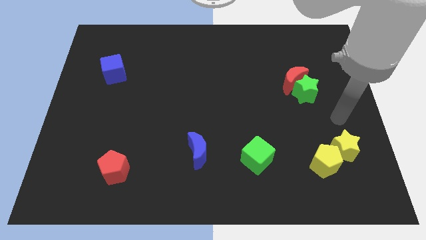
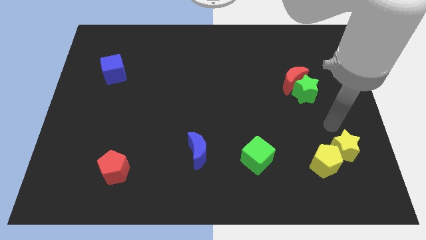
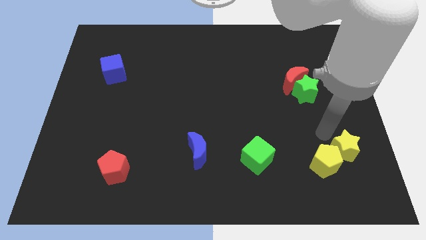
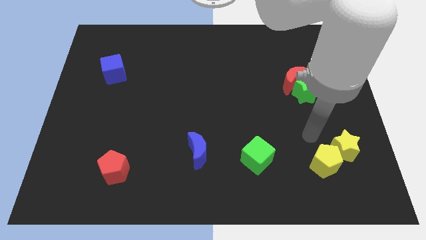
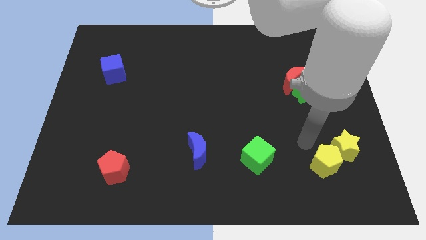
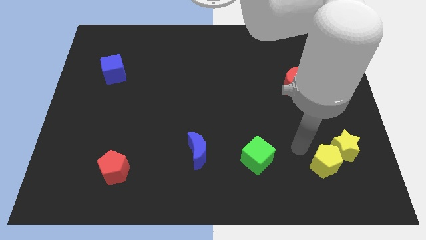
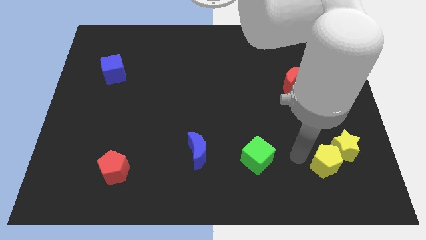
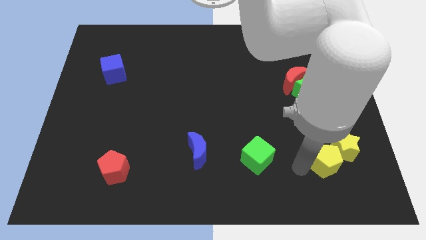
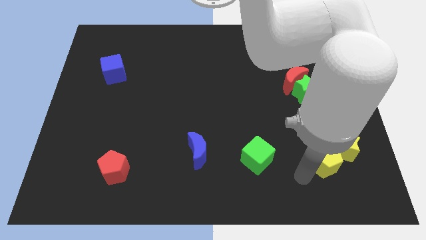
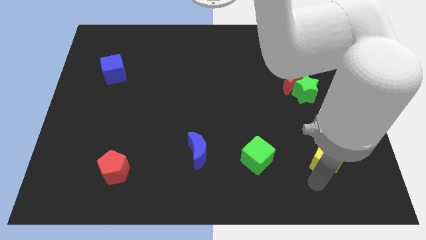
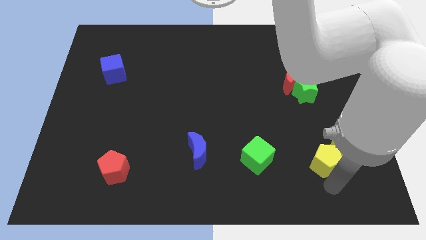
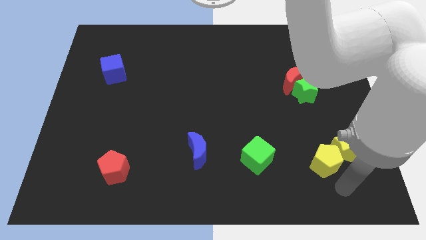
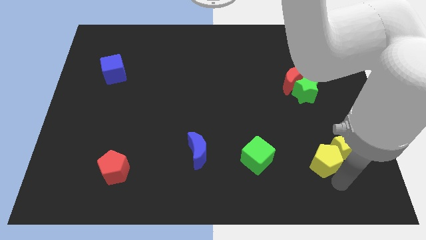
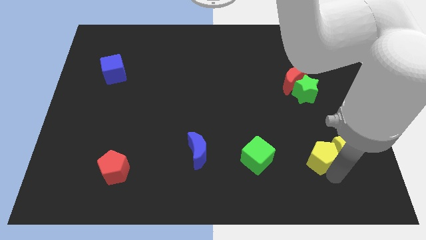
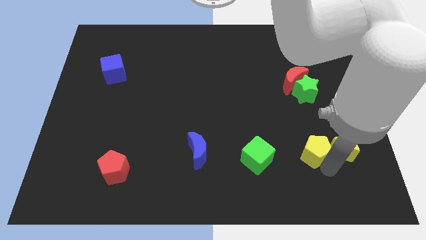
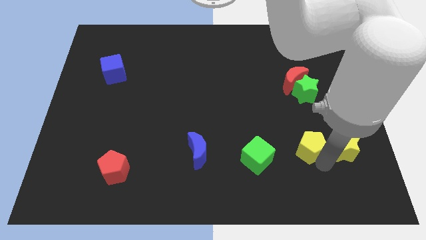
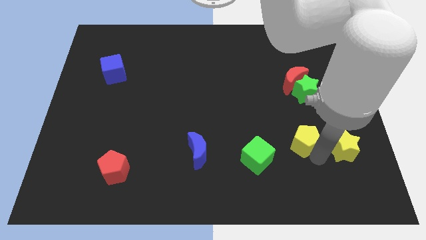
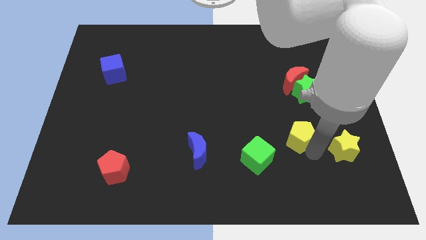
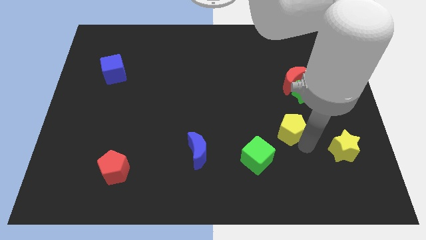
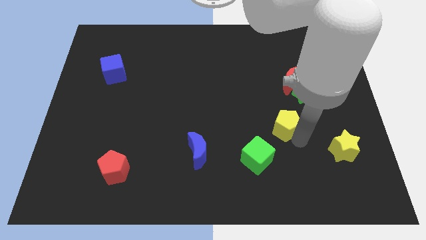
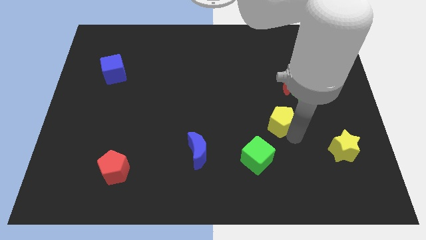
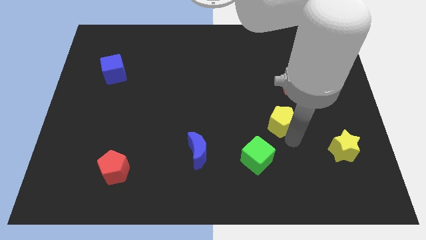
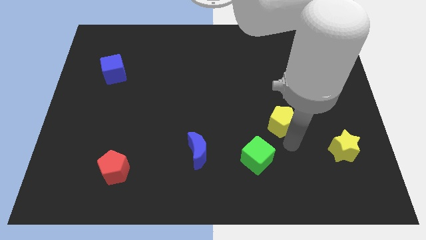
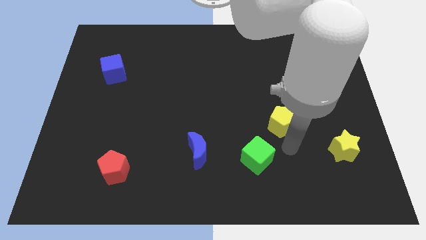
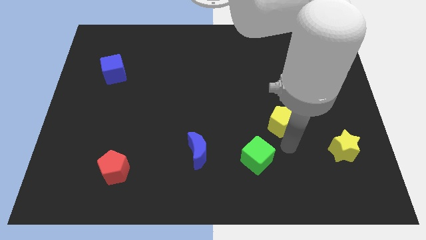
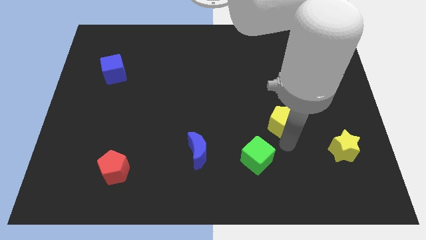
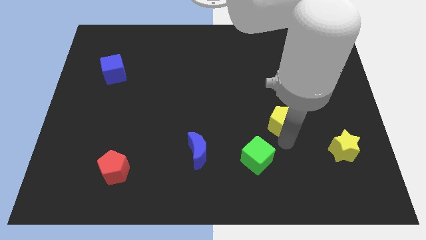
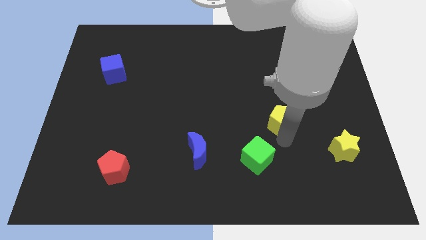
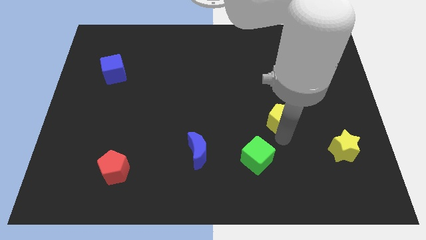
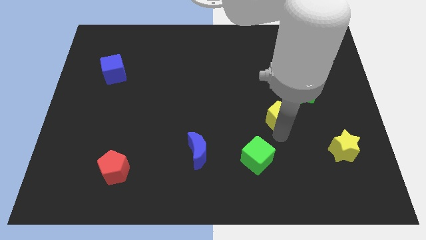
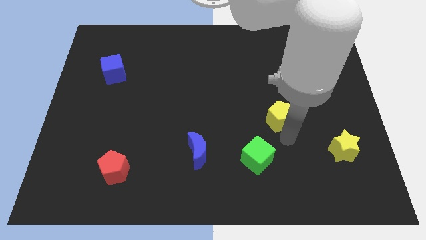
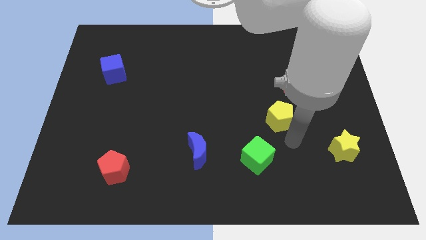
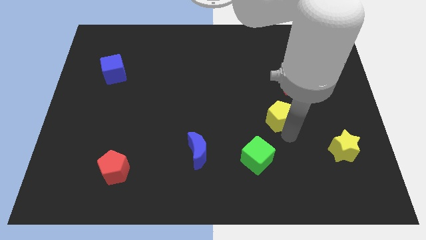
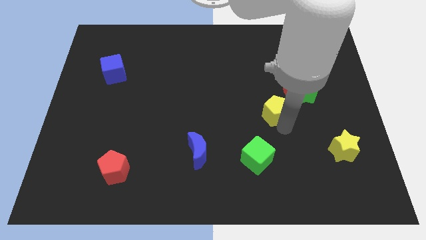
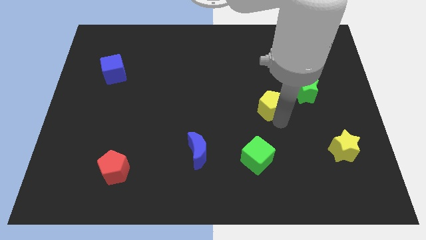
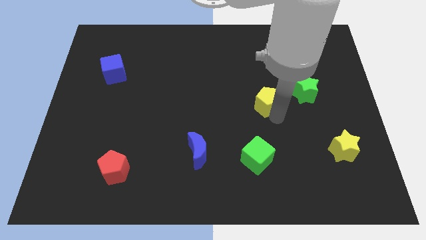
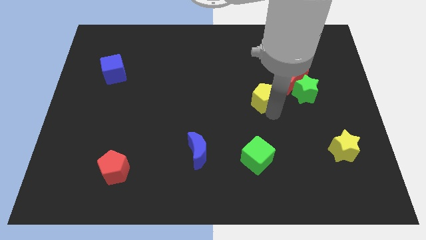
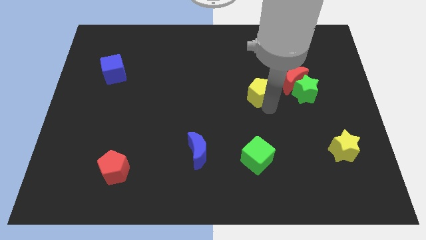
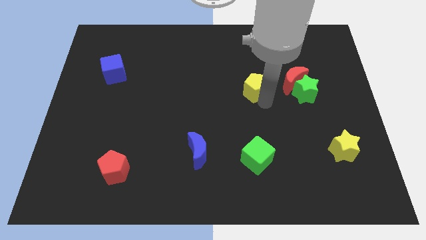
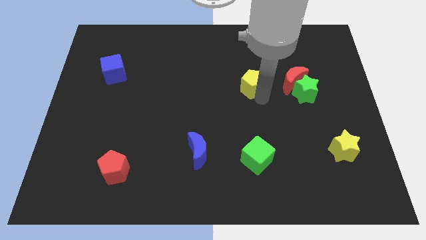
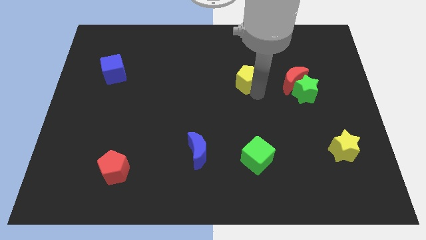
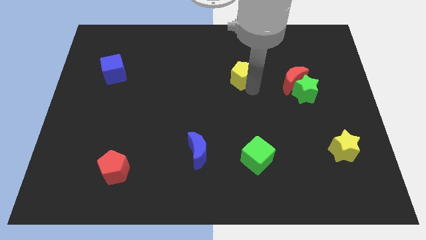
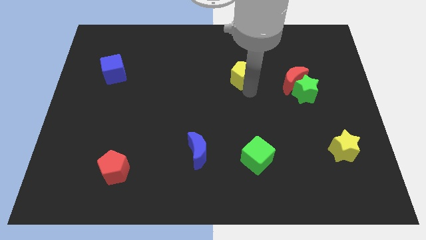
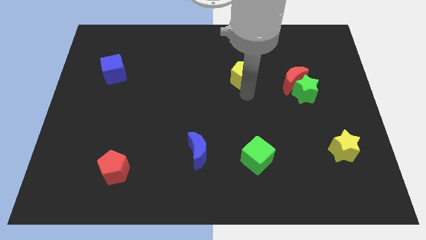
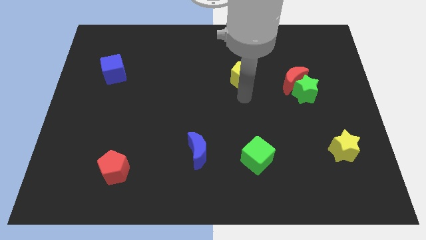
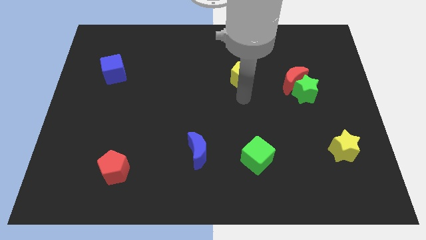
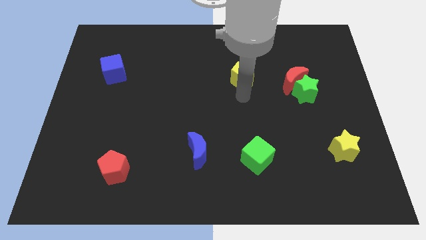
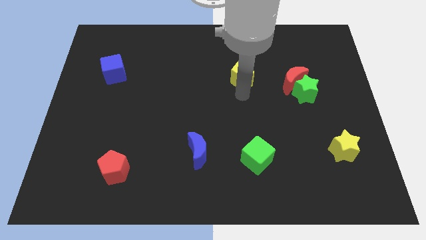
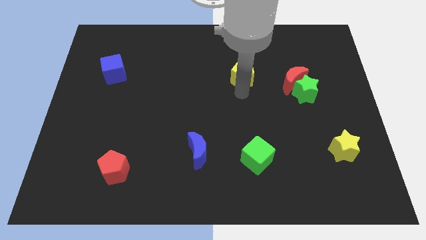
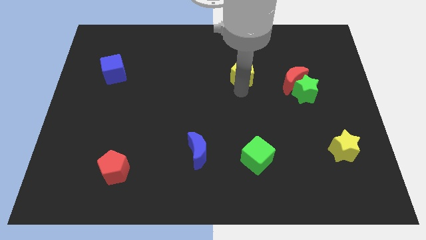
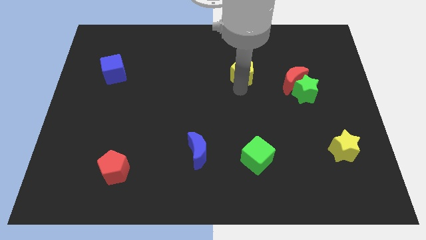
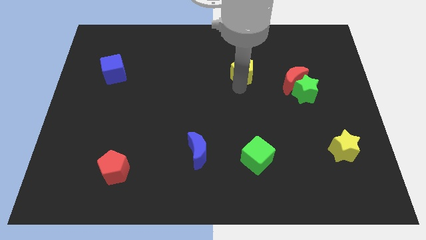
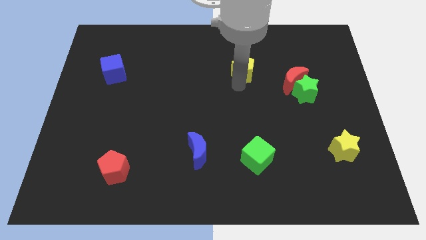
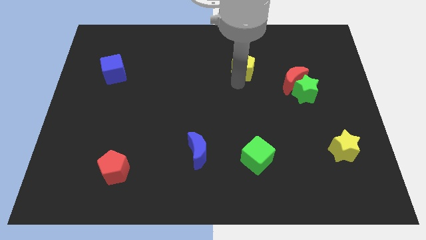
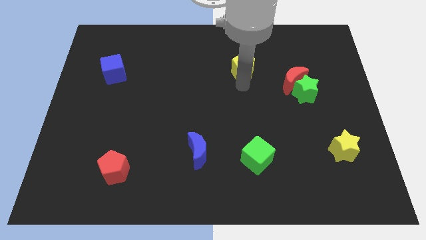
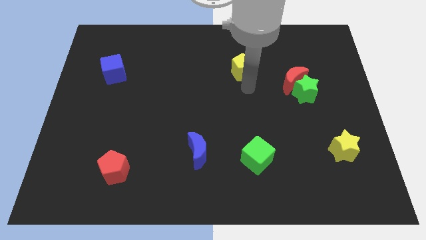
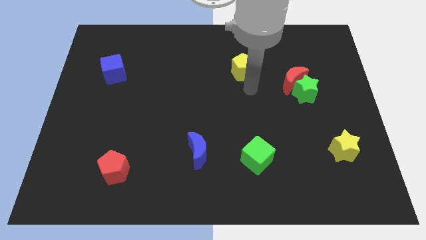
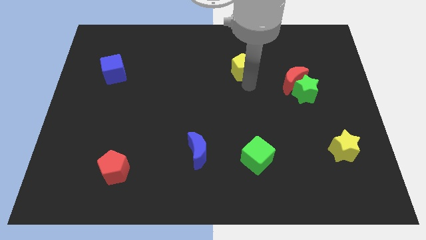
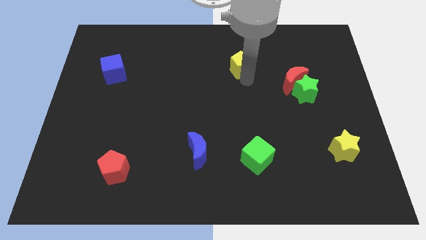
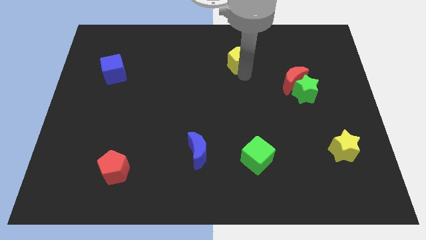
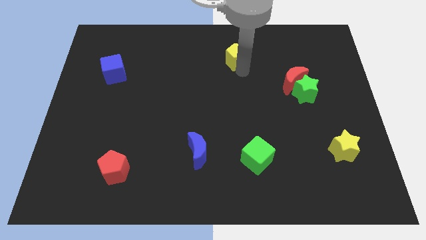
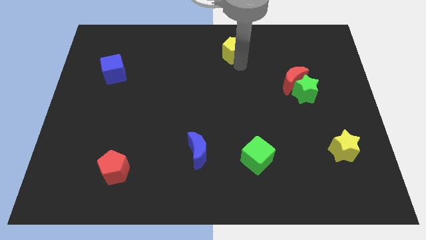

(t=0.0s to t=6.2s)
push the yellow pentagon to the top side
